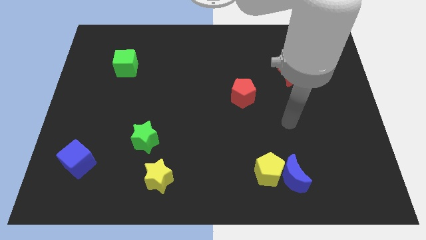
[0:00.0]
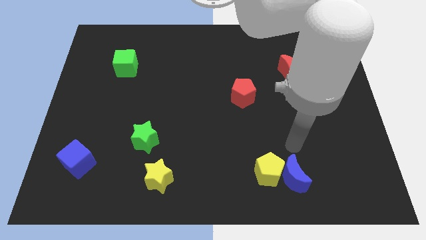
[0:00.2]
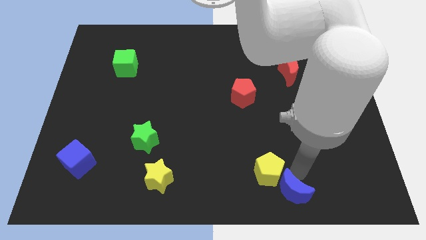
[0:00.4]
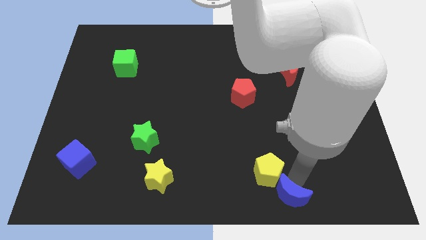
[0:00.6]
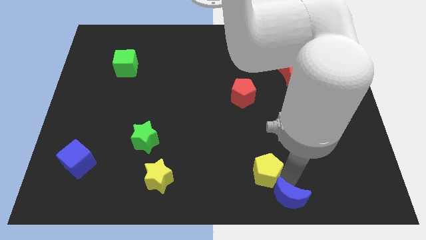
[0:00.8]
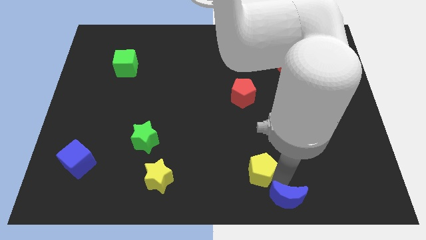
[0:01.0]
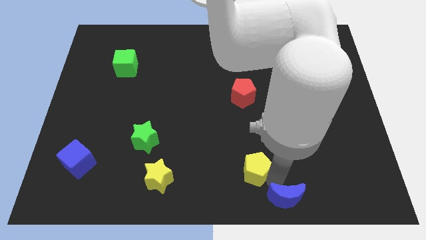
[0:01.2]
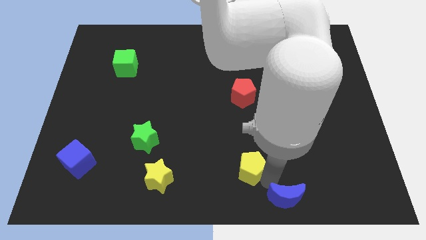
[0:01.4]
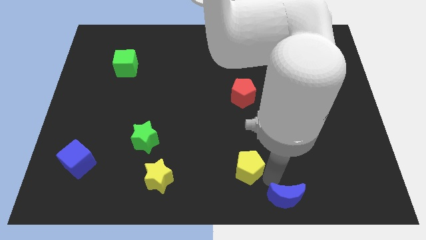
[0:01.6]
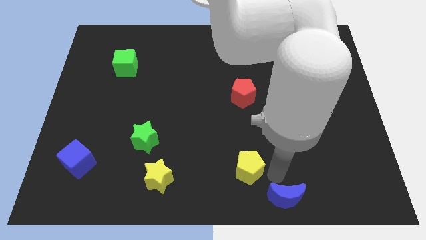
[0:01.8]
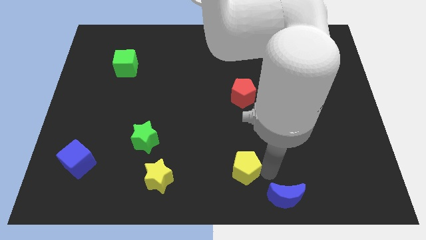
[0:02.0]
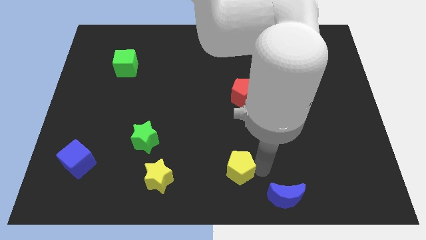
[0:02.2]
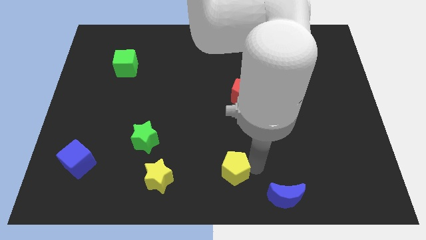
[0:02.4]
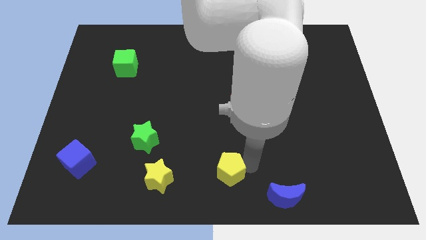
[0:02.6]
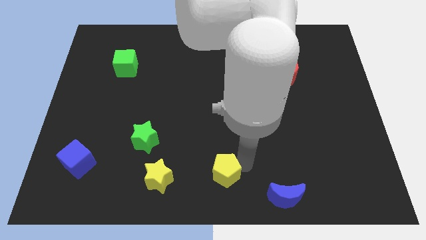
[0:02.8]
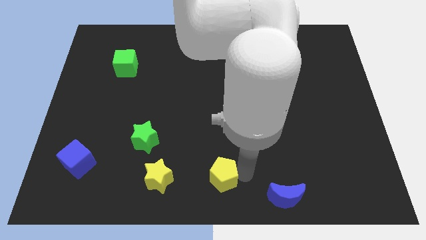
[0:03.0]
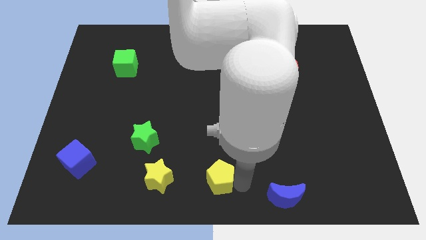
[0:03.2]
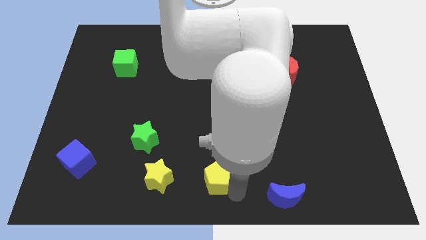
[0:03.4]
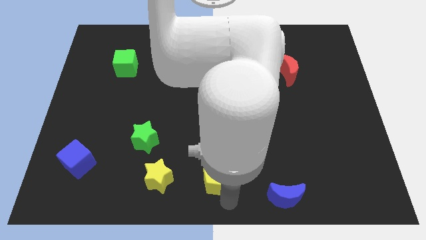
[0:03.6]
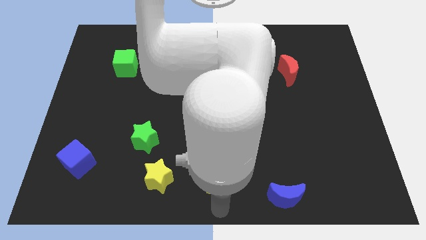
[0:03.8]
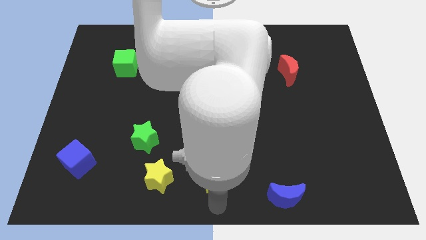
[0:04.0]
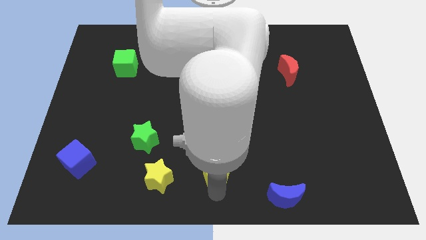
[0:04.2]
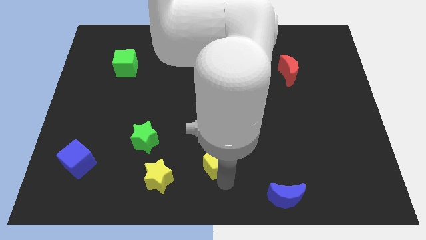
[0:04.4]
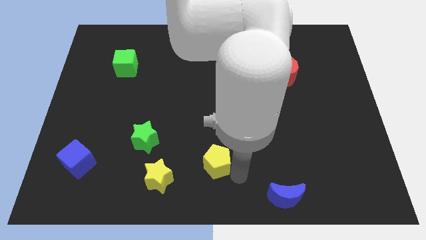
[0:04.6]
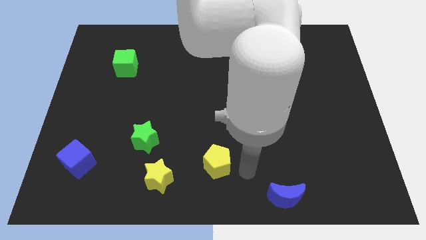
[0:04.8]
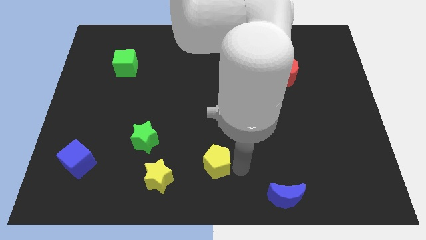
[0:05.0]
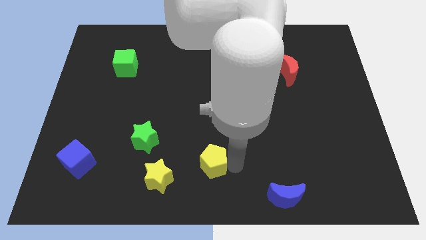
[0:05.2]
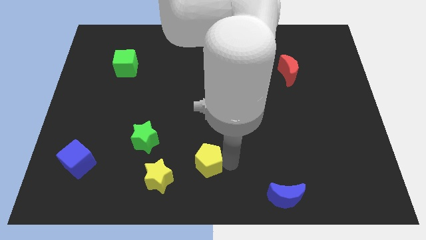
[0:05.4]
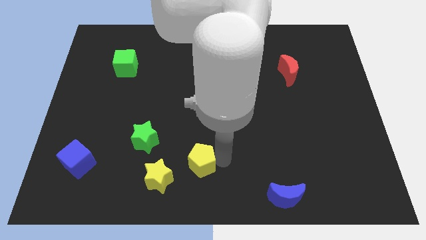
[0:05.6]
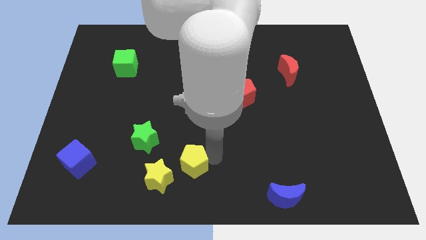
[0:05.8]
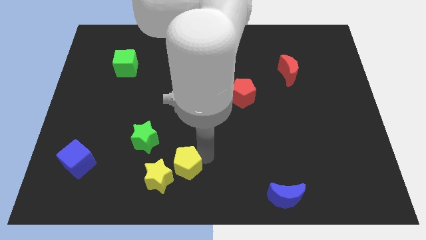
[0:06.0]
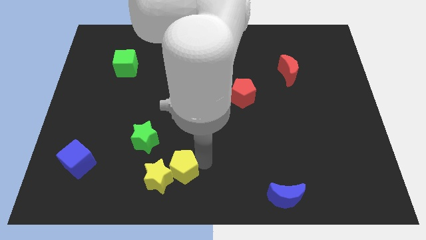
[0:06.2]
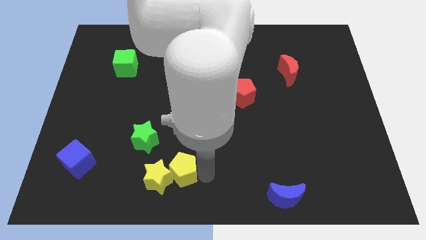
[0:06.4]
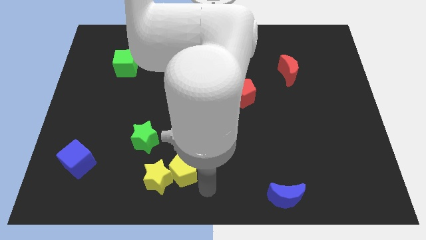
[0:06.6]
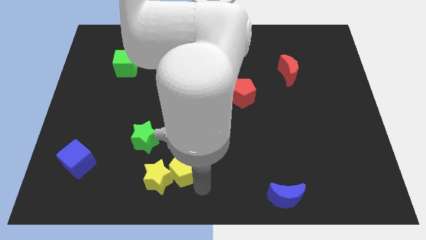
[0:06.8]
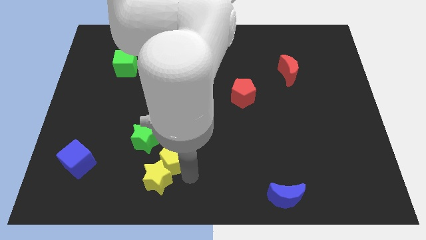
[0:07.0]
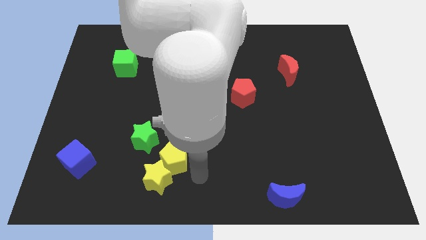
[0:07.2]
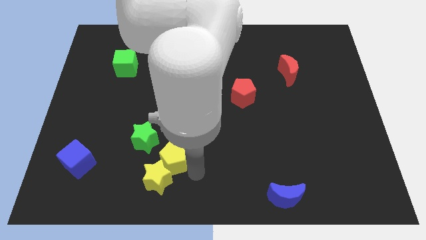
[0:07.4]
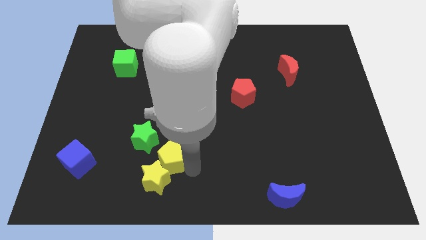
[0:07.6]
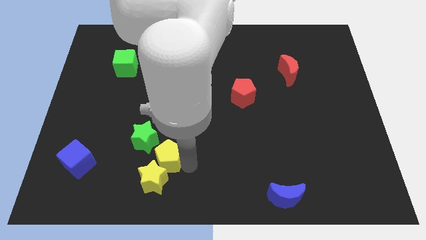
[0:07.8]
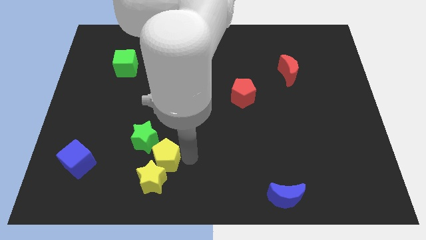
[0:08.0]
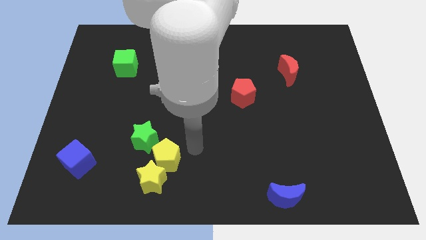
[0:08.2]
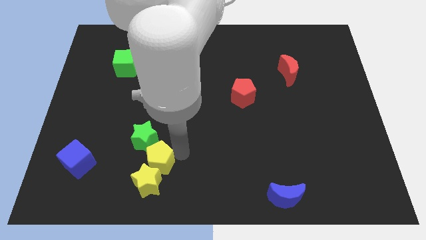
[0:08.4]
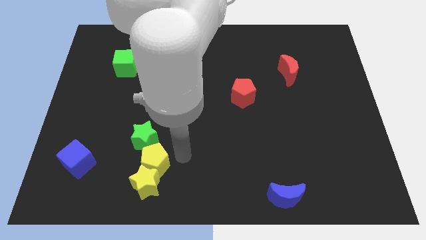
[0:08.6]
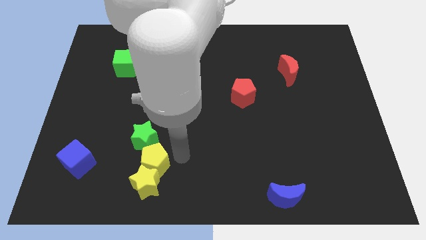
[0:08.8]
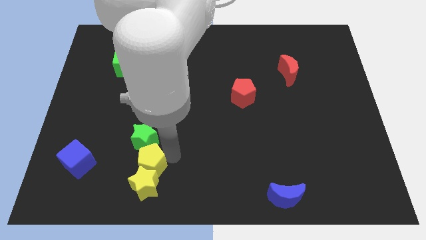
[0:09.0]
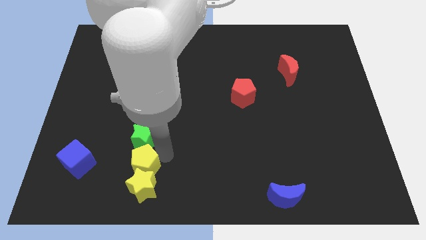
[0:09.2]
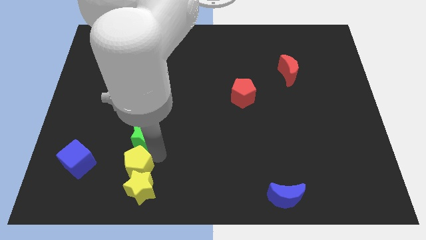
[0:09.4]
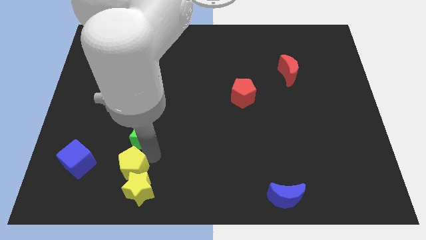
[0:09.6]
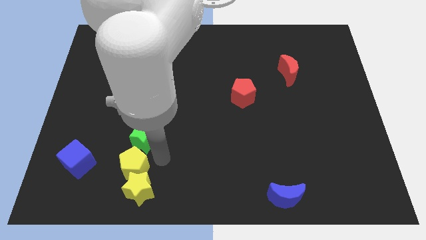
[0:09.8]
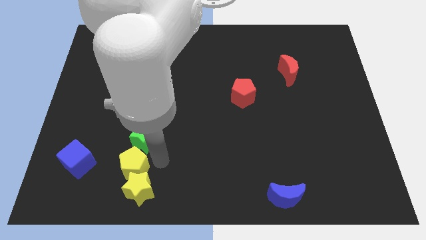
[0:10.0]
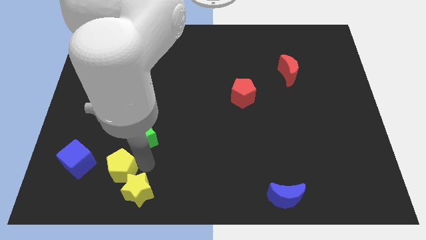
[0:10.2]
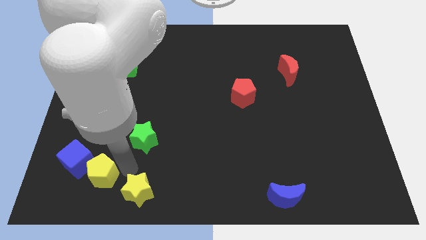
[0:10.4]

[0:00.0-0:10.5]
put the yellow pentagon next to the blue cube

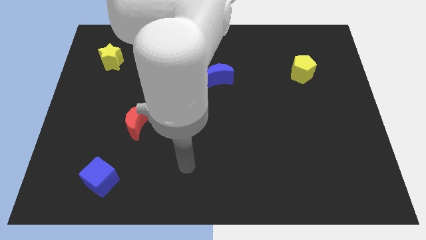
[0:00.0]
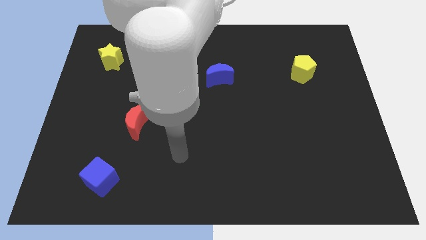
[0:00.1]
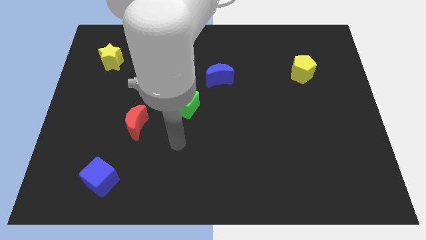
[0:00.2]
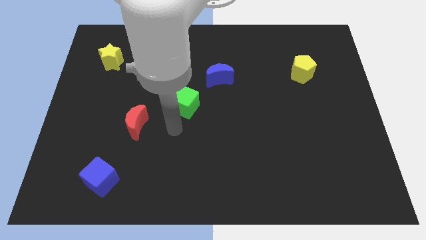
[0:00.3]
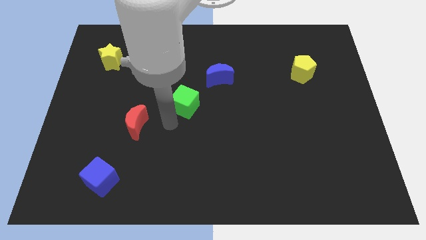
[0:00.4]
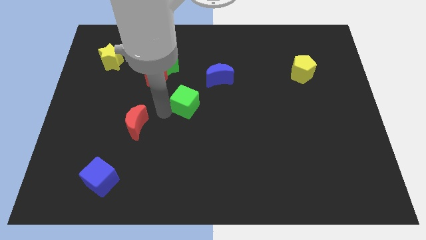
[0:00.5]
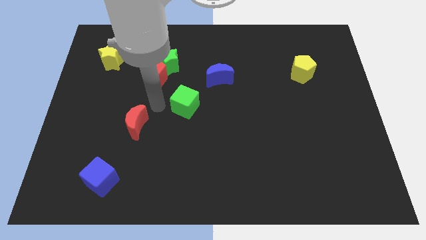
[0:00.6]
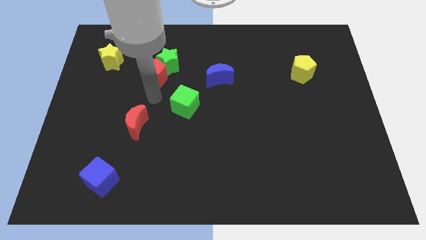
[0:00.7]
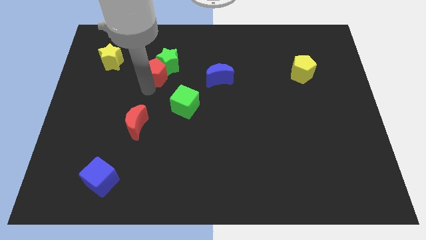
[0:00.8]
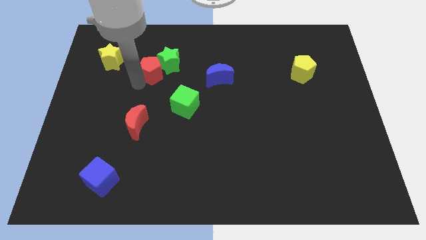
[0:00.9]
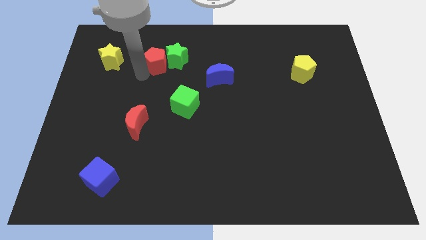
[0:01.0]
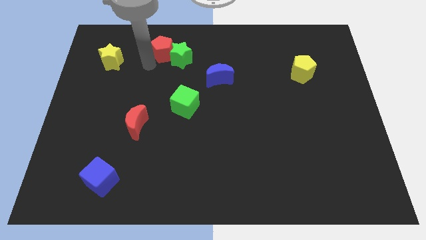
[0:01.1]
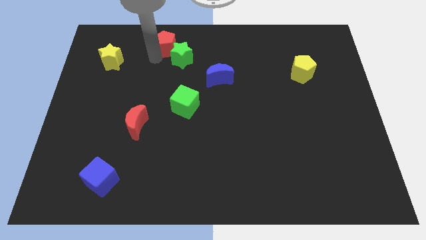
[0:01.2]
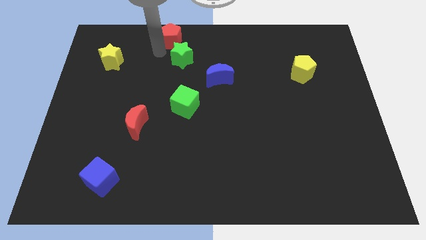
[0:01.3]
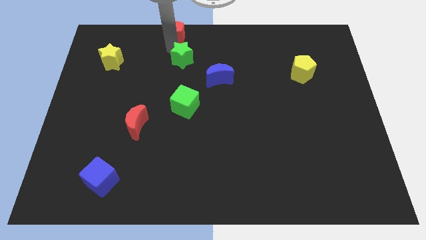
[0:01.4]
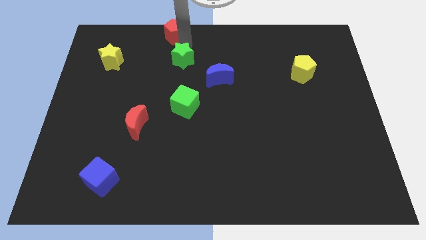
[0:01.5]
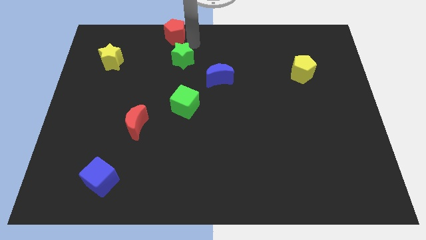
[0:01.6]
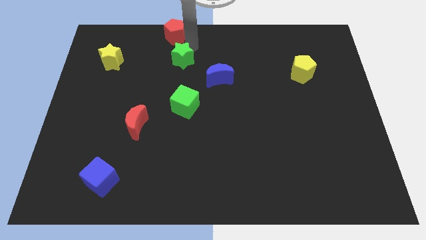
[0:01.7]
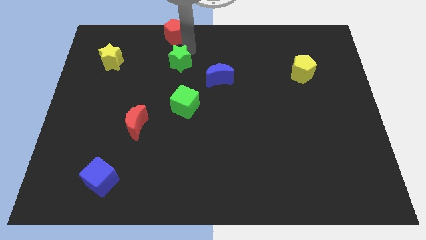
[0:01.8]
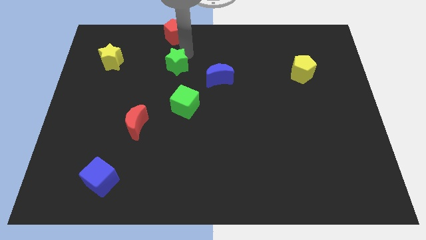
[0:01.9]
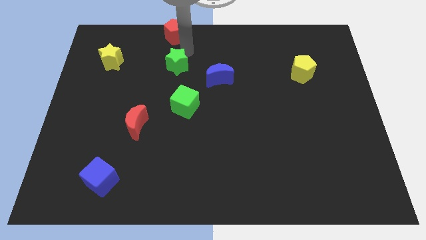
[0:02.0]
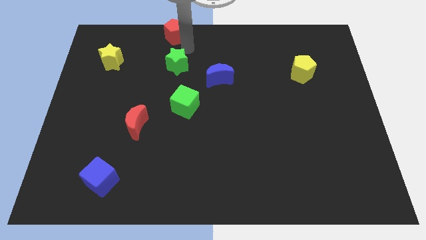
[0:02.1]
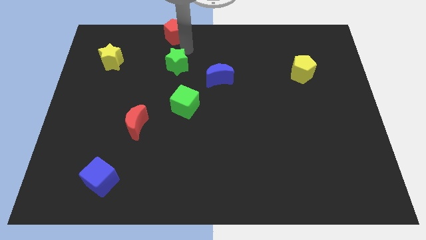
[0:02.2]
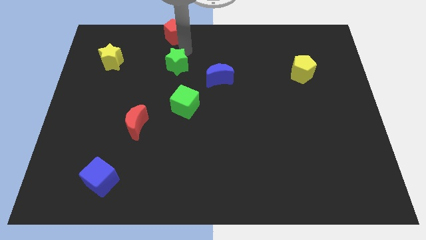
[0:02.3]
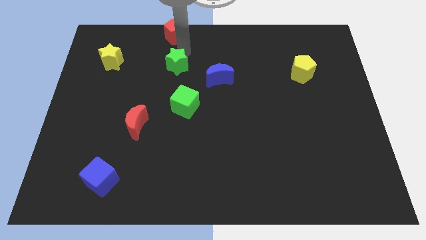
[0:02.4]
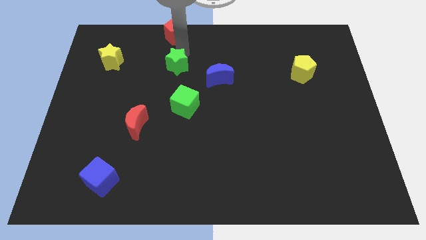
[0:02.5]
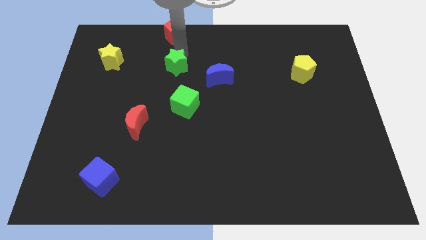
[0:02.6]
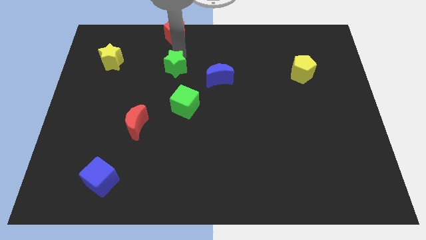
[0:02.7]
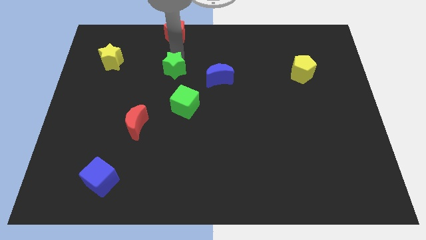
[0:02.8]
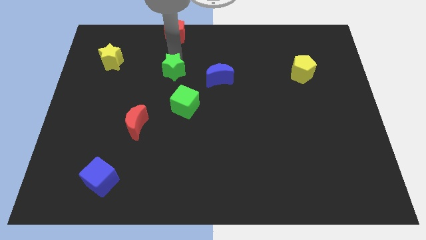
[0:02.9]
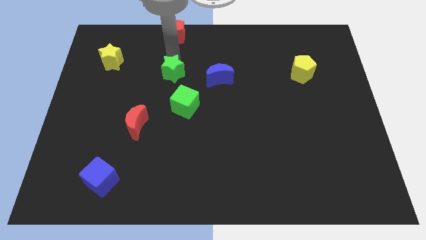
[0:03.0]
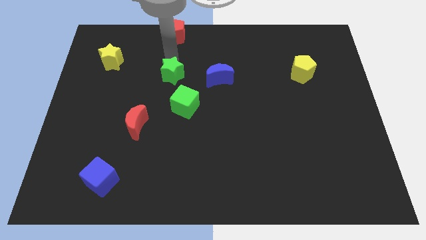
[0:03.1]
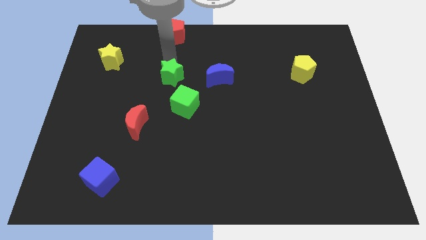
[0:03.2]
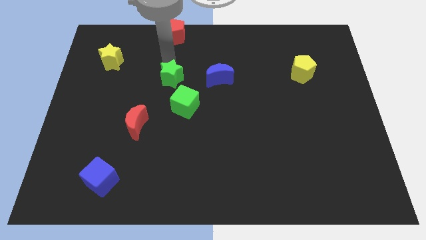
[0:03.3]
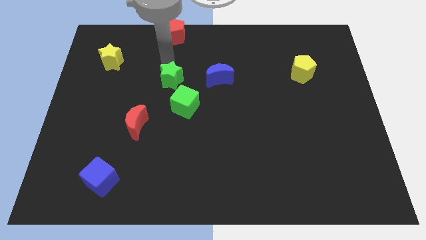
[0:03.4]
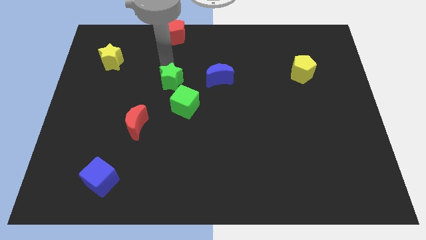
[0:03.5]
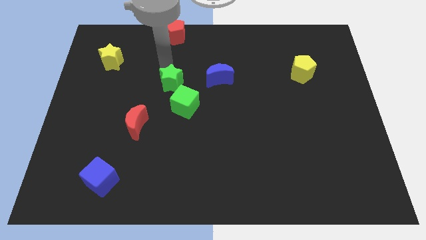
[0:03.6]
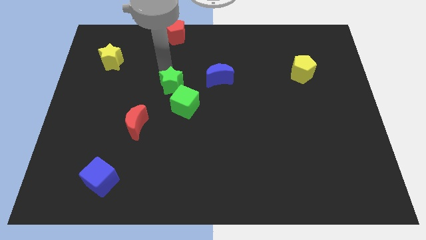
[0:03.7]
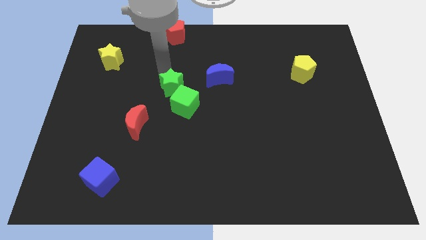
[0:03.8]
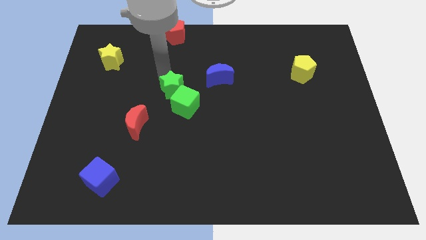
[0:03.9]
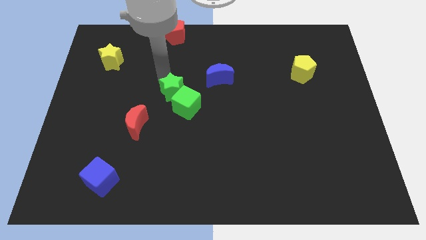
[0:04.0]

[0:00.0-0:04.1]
put the green star next to the green cube
